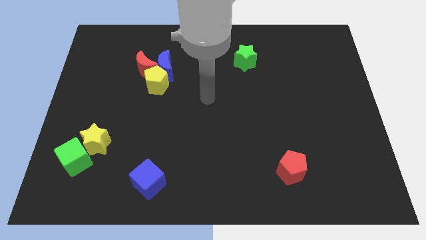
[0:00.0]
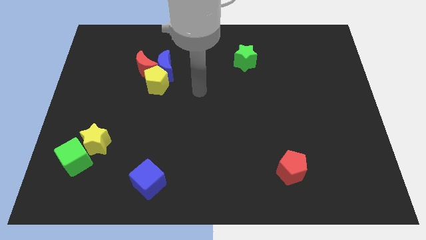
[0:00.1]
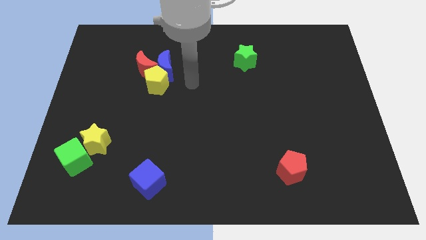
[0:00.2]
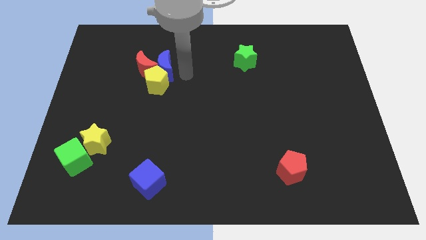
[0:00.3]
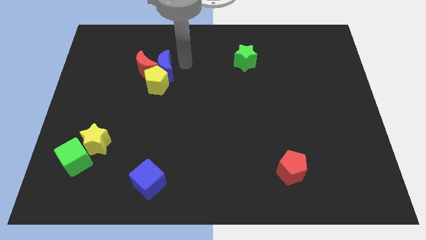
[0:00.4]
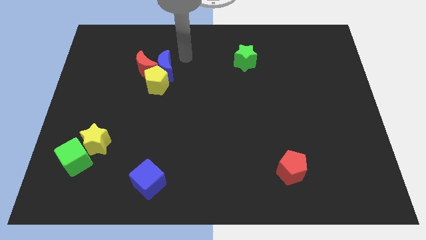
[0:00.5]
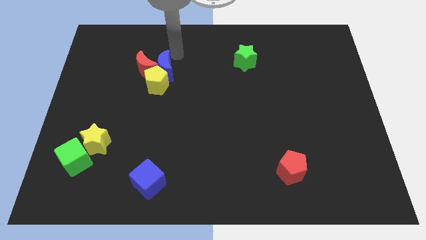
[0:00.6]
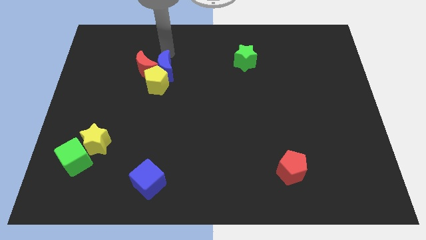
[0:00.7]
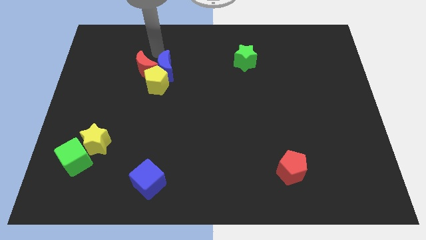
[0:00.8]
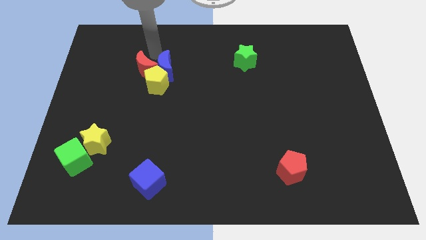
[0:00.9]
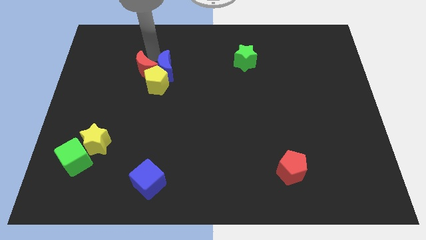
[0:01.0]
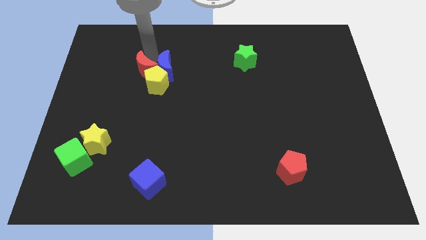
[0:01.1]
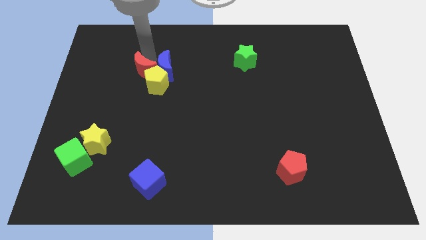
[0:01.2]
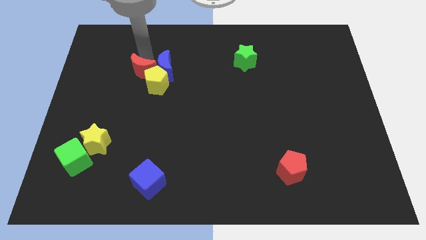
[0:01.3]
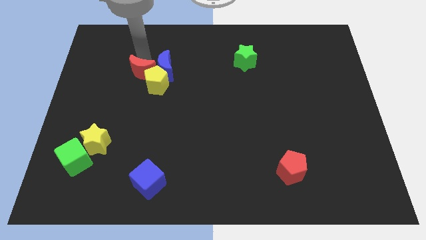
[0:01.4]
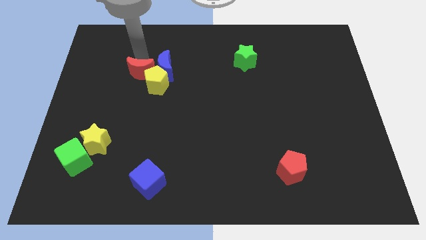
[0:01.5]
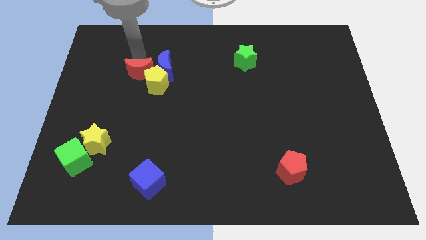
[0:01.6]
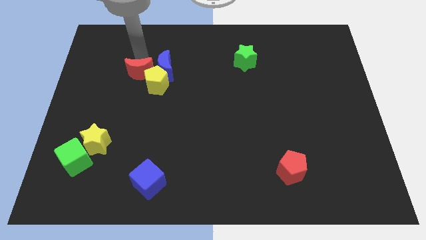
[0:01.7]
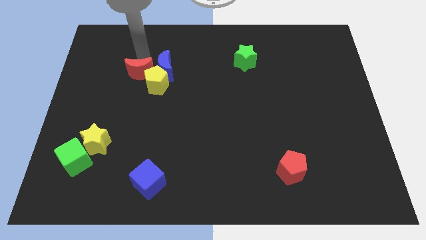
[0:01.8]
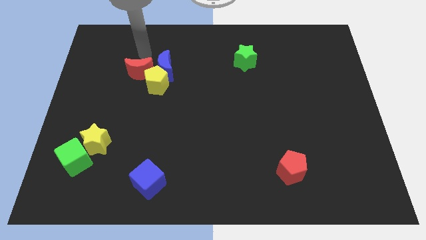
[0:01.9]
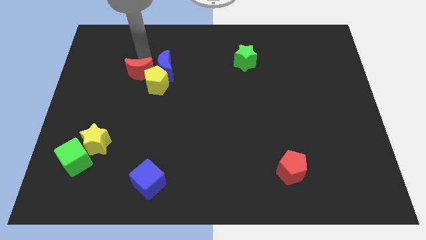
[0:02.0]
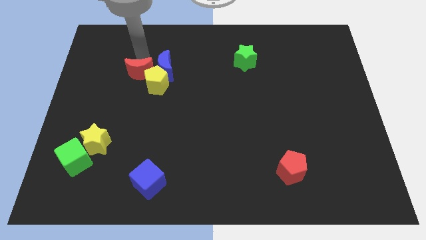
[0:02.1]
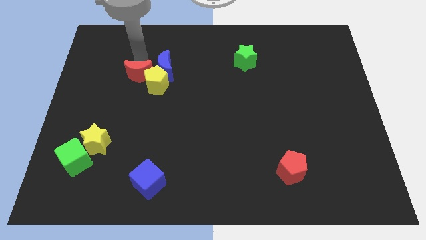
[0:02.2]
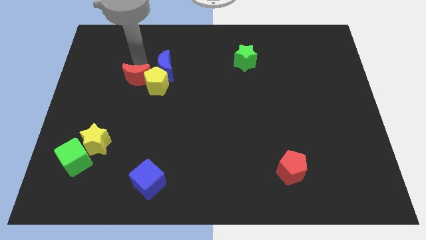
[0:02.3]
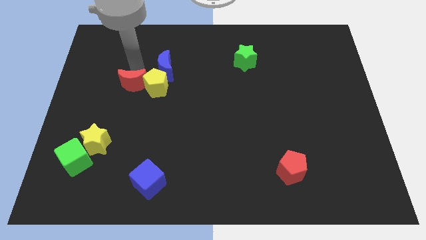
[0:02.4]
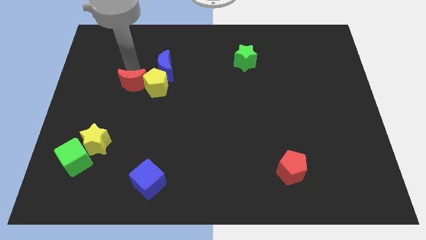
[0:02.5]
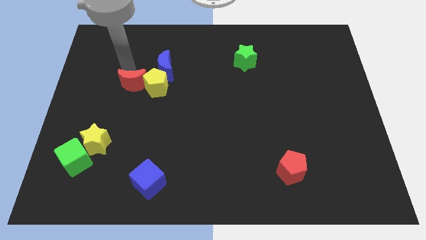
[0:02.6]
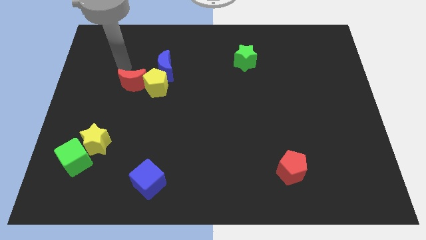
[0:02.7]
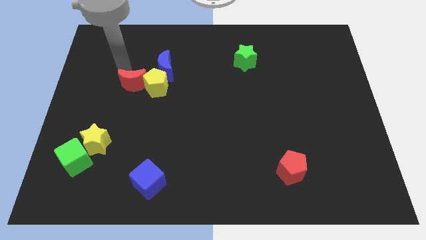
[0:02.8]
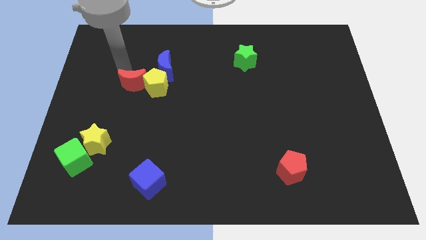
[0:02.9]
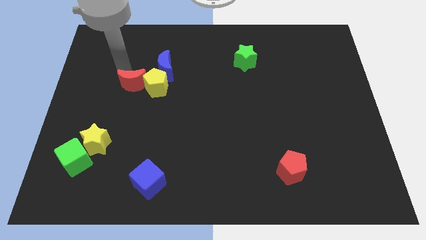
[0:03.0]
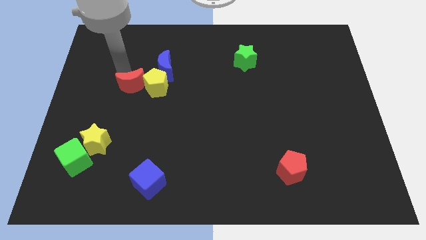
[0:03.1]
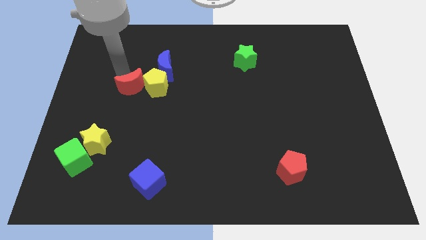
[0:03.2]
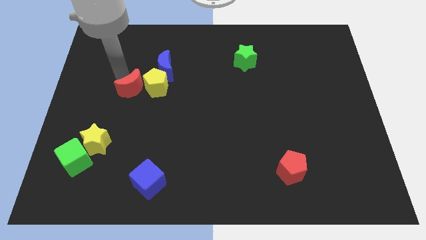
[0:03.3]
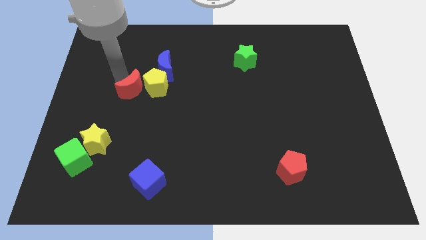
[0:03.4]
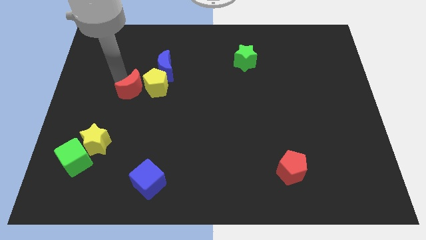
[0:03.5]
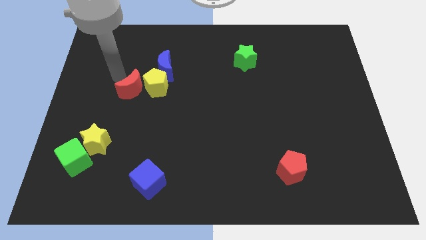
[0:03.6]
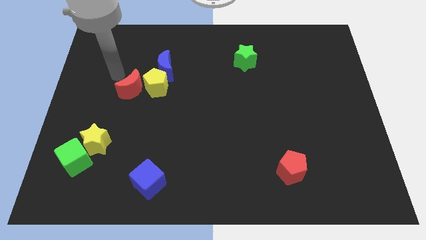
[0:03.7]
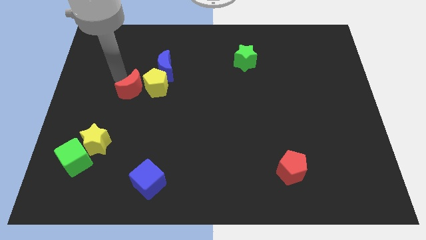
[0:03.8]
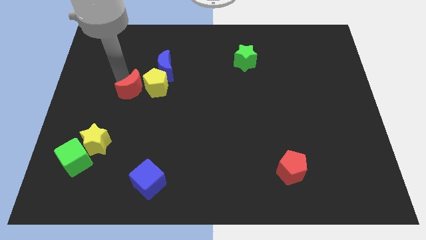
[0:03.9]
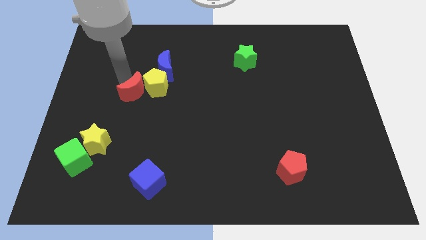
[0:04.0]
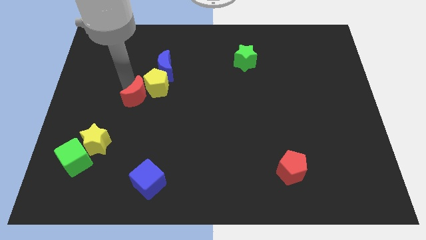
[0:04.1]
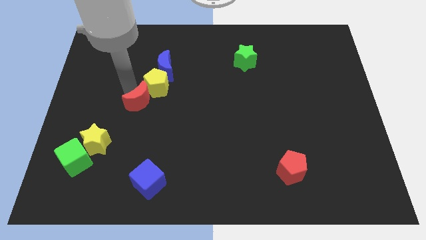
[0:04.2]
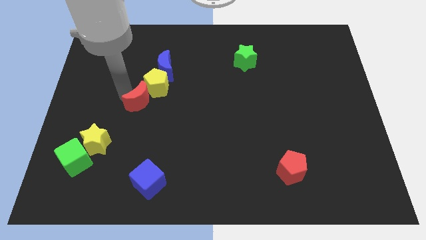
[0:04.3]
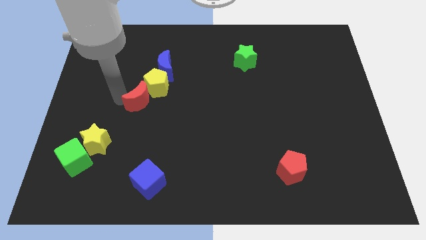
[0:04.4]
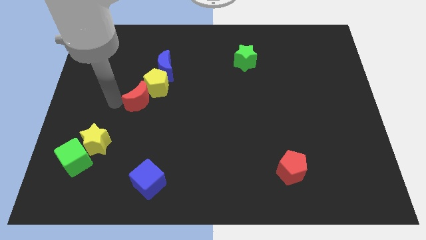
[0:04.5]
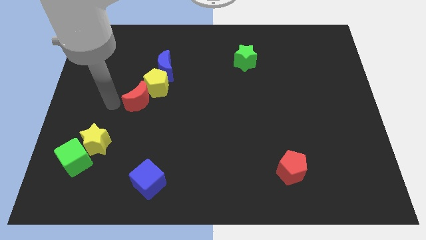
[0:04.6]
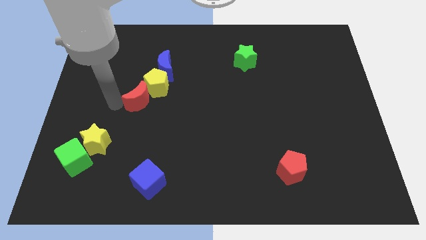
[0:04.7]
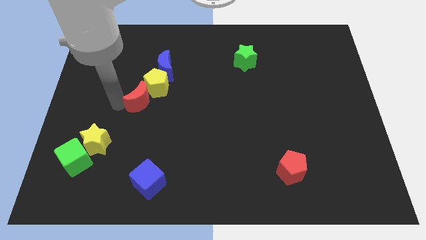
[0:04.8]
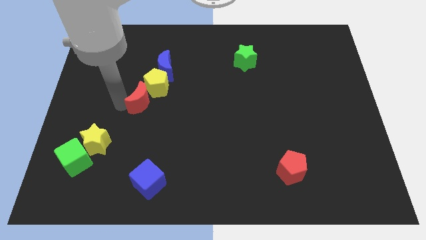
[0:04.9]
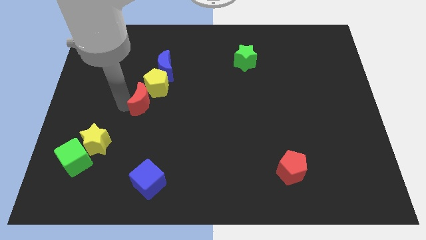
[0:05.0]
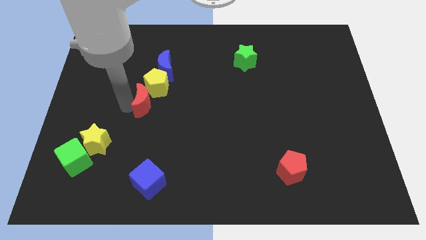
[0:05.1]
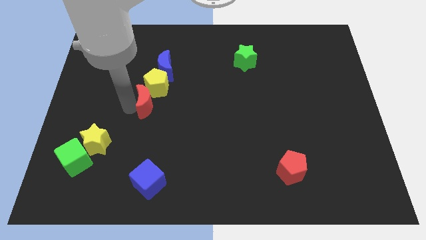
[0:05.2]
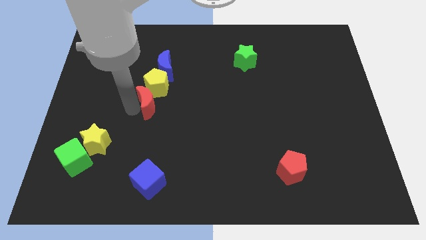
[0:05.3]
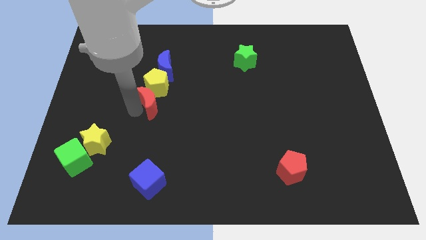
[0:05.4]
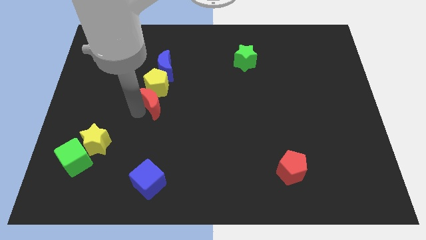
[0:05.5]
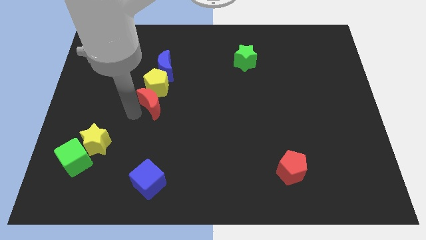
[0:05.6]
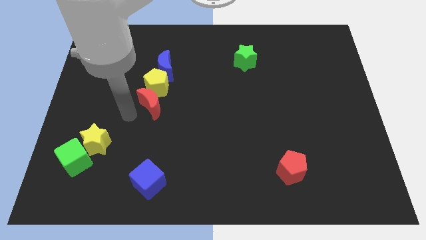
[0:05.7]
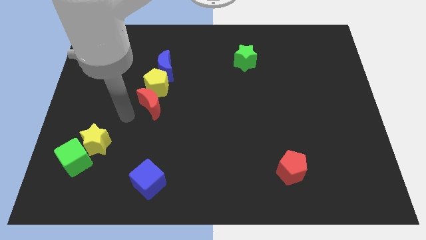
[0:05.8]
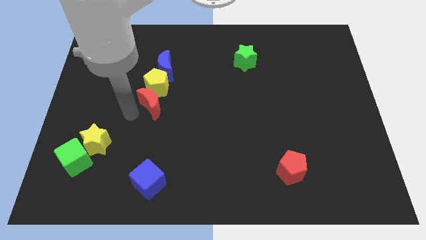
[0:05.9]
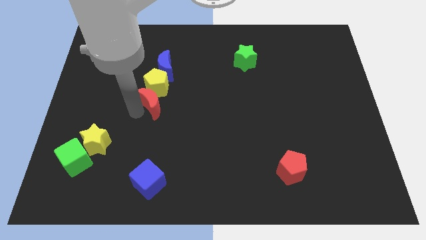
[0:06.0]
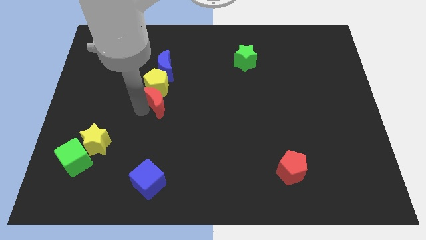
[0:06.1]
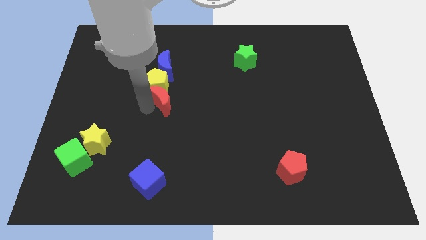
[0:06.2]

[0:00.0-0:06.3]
move the red moon to the center

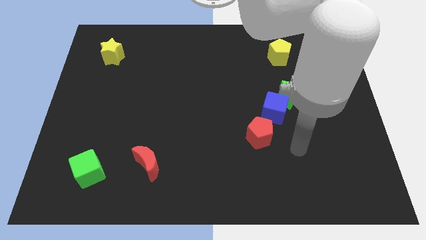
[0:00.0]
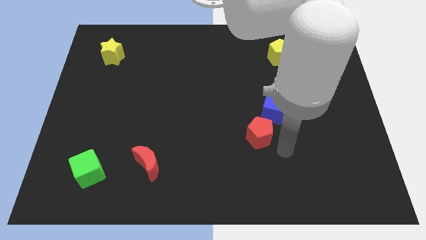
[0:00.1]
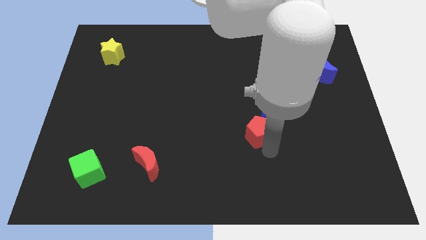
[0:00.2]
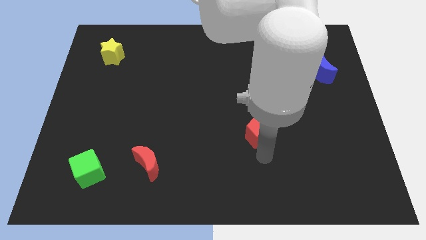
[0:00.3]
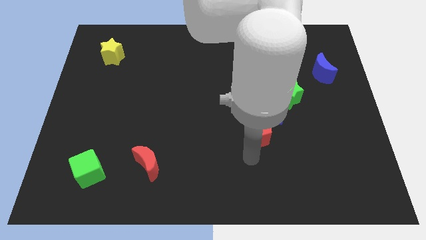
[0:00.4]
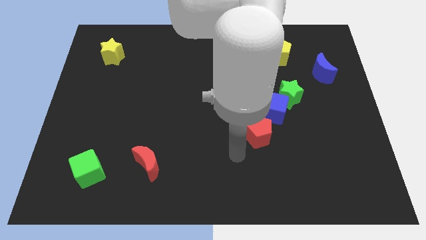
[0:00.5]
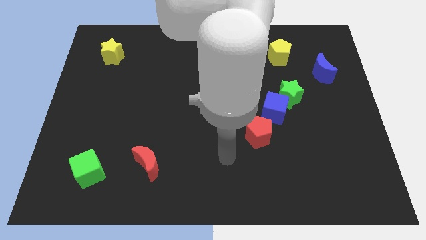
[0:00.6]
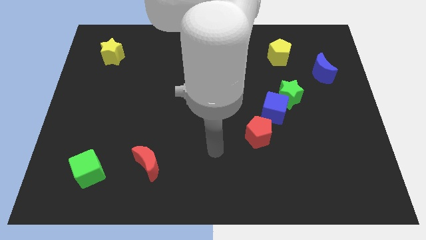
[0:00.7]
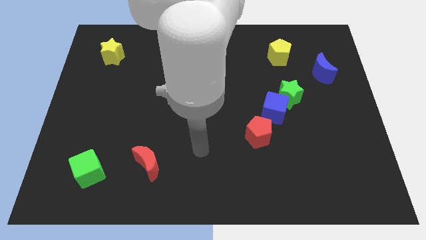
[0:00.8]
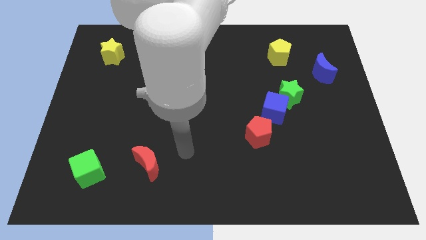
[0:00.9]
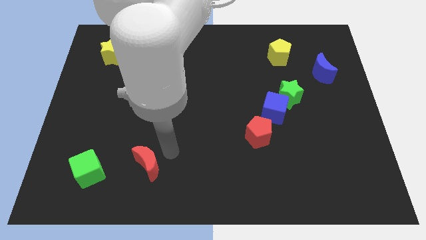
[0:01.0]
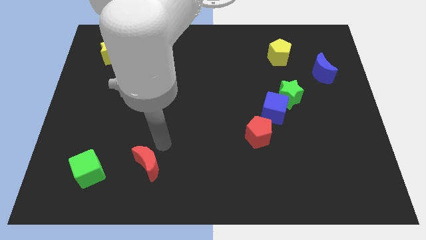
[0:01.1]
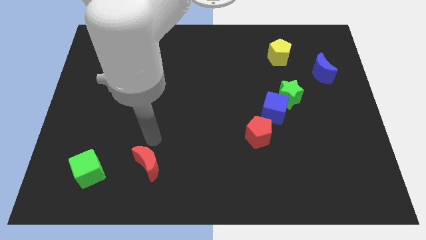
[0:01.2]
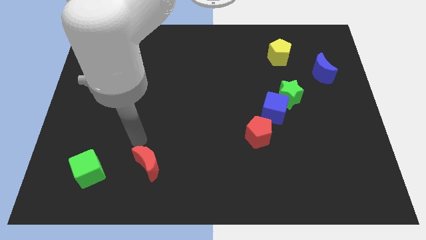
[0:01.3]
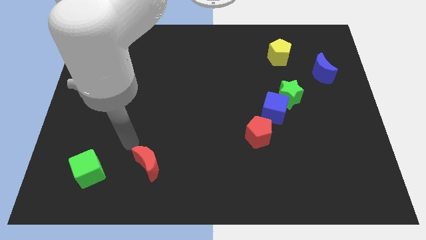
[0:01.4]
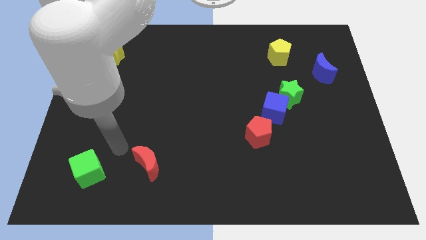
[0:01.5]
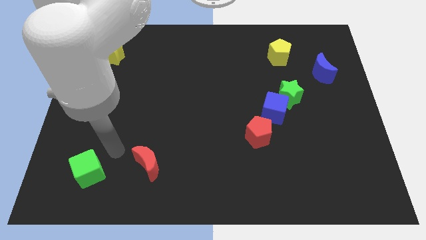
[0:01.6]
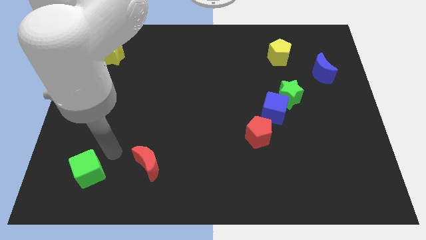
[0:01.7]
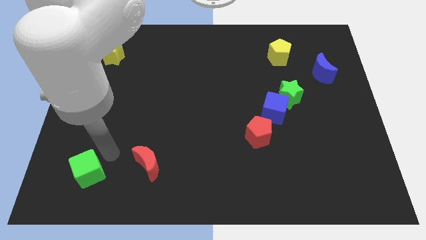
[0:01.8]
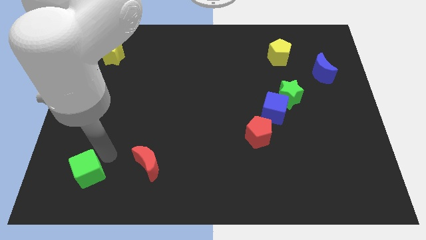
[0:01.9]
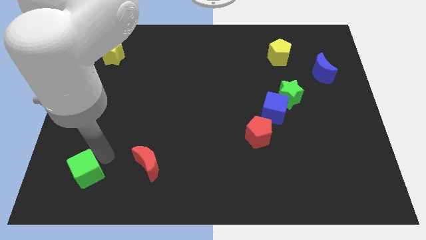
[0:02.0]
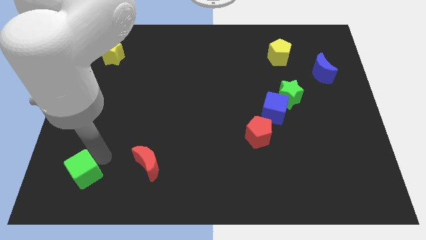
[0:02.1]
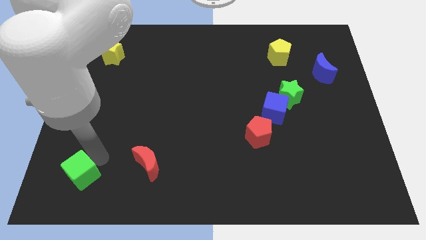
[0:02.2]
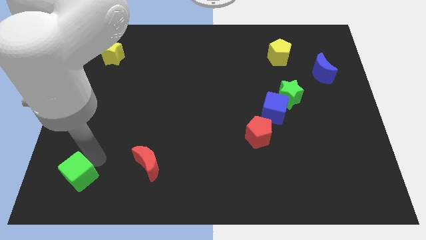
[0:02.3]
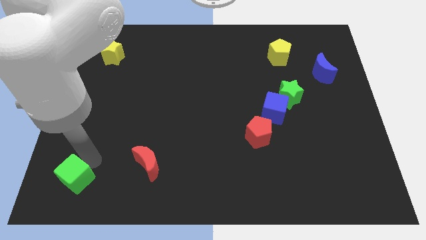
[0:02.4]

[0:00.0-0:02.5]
move the green cube to the lower left corner
